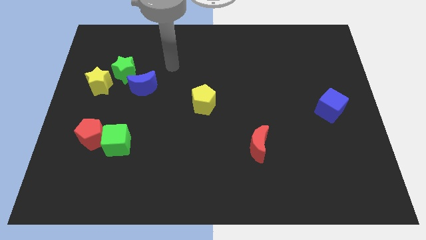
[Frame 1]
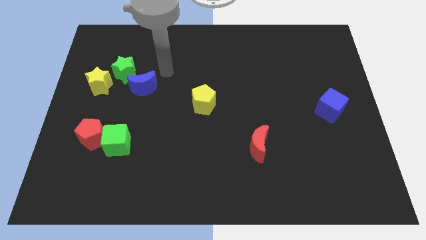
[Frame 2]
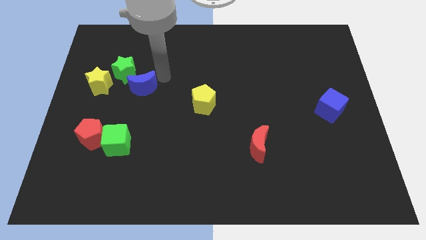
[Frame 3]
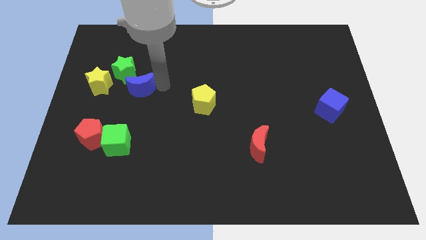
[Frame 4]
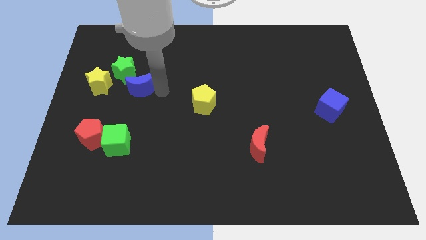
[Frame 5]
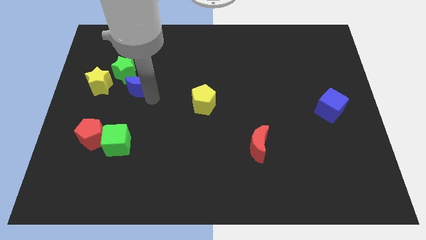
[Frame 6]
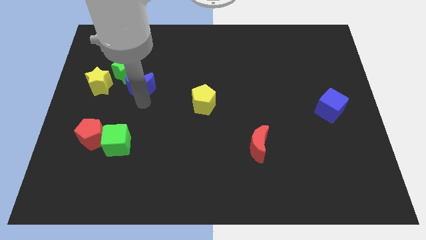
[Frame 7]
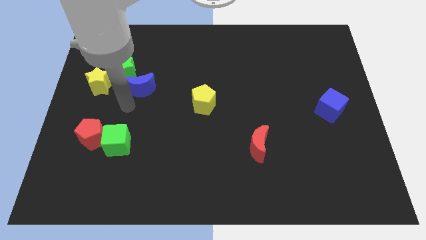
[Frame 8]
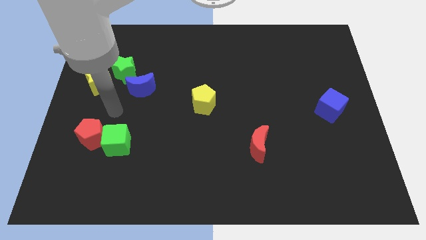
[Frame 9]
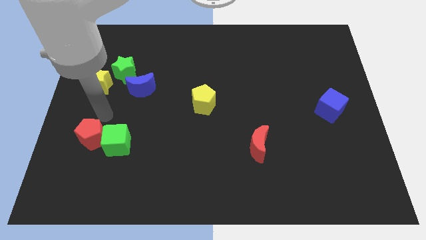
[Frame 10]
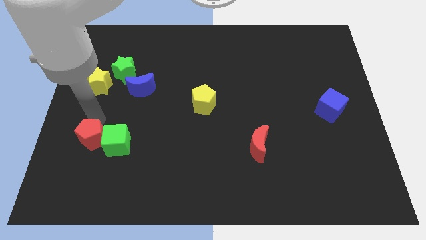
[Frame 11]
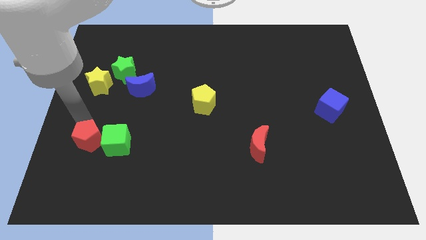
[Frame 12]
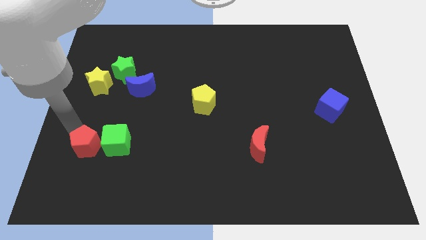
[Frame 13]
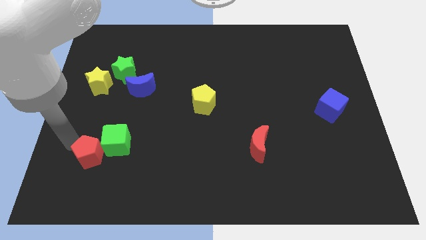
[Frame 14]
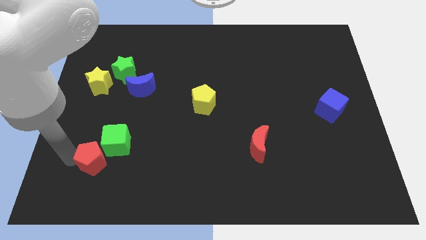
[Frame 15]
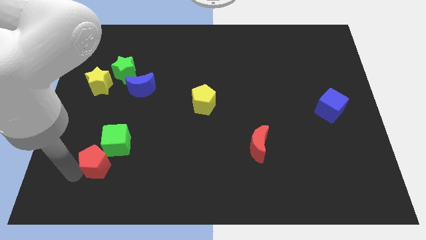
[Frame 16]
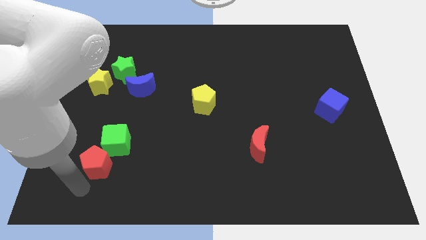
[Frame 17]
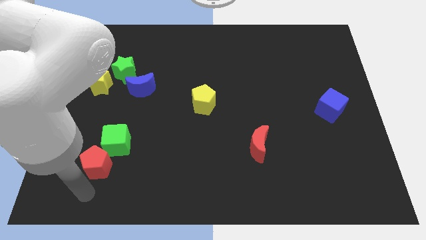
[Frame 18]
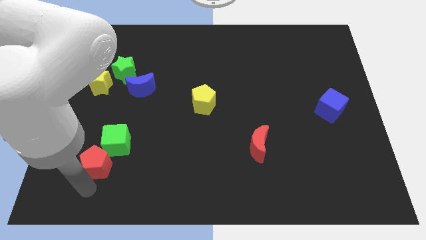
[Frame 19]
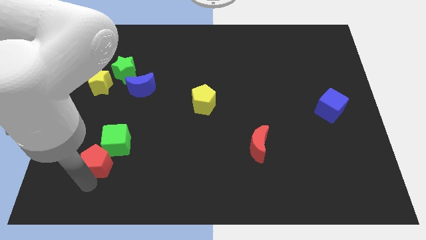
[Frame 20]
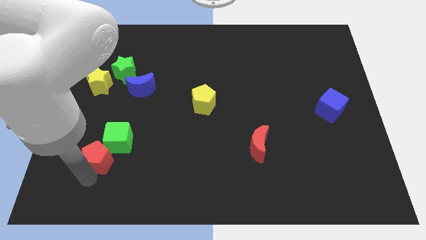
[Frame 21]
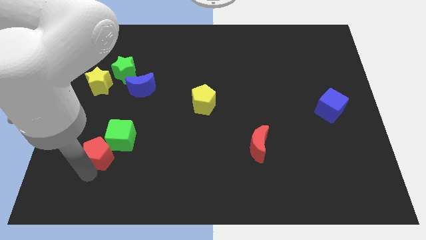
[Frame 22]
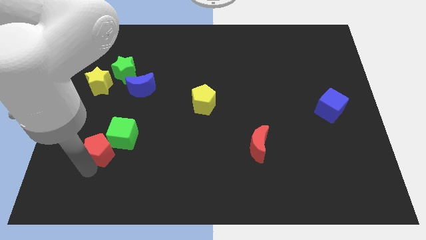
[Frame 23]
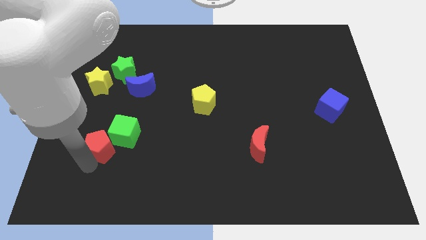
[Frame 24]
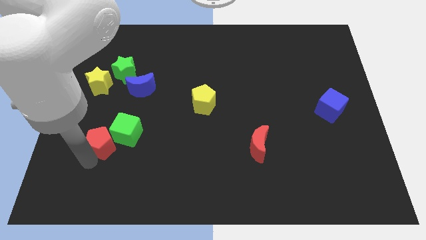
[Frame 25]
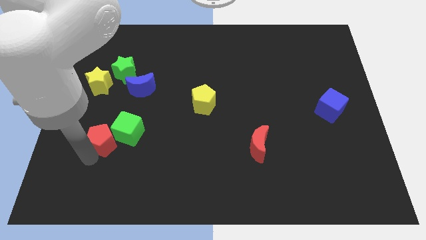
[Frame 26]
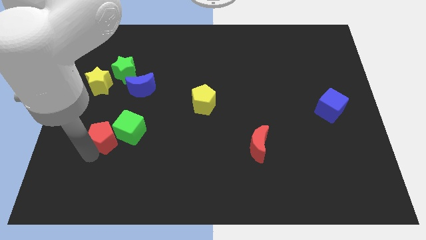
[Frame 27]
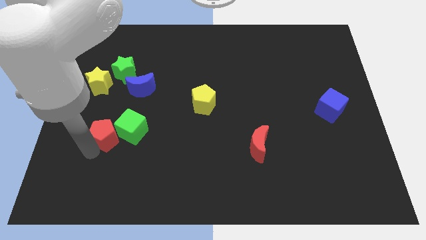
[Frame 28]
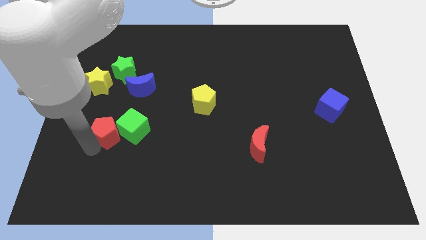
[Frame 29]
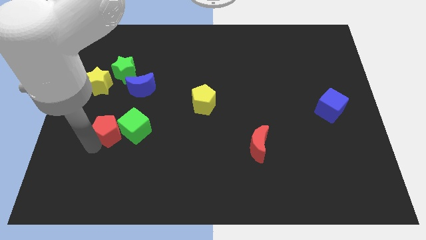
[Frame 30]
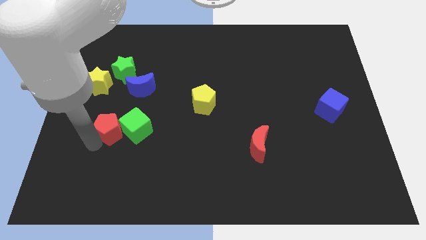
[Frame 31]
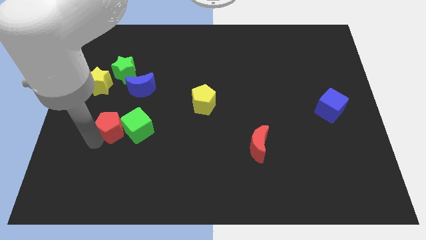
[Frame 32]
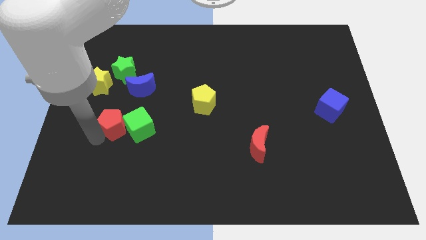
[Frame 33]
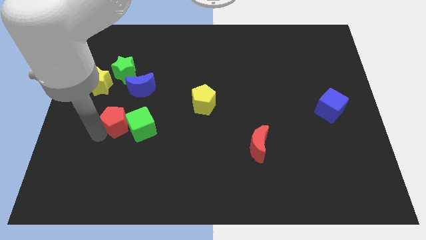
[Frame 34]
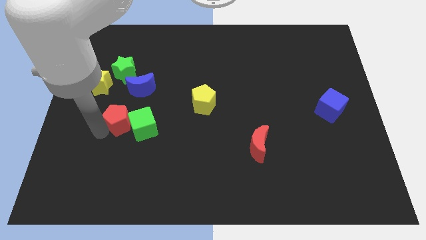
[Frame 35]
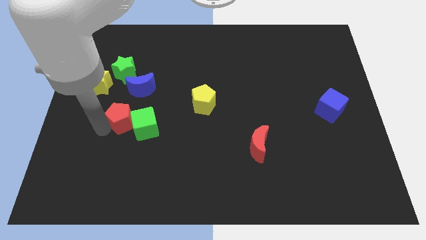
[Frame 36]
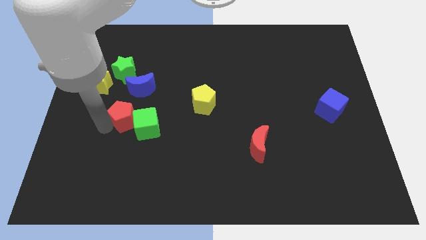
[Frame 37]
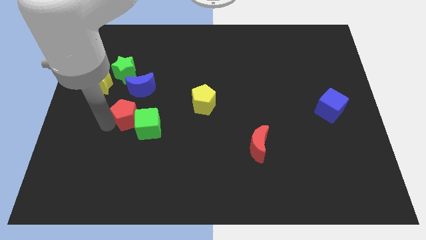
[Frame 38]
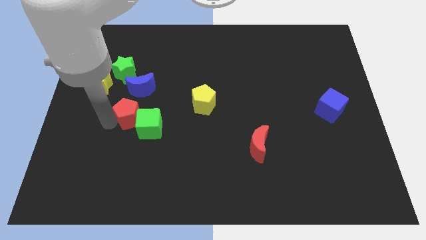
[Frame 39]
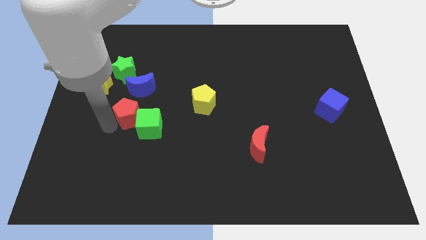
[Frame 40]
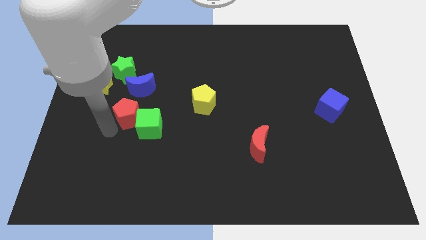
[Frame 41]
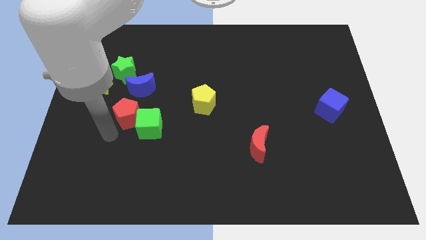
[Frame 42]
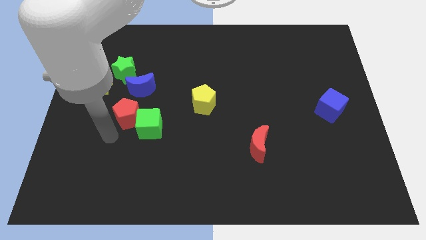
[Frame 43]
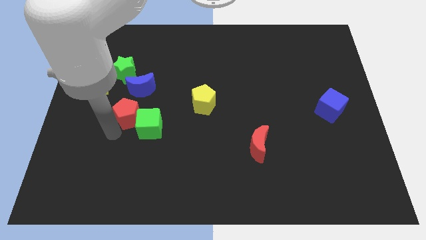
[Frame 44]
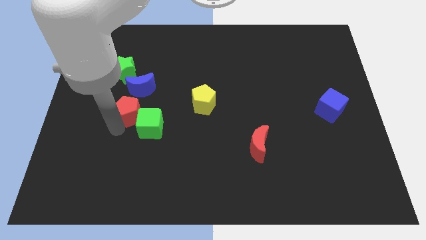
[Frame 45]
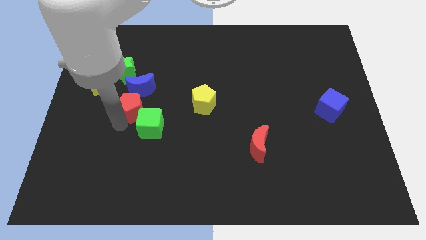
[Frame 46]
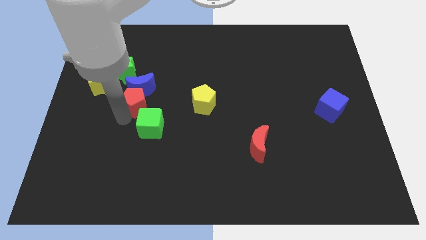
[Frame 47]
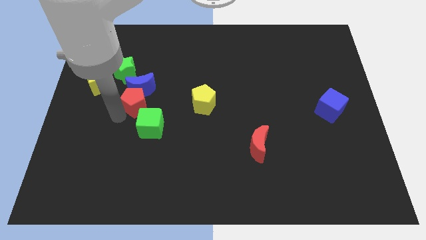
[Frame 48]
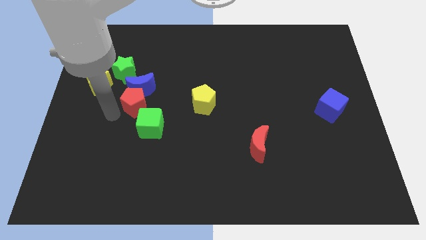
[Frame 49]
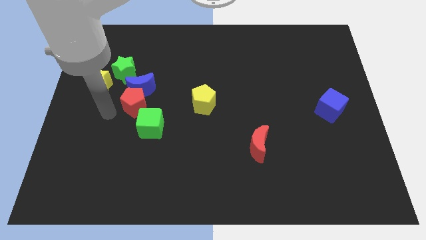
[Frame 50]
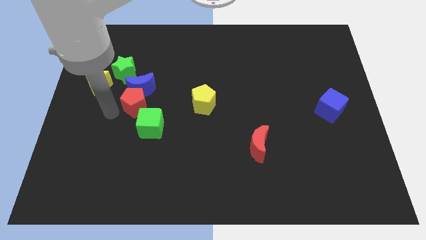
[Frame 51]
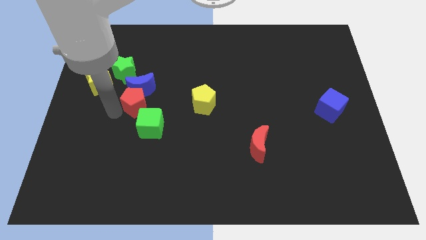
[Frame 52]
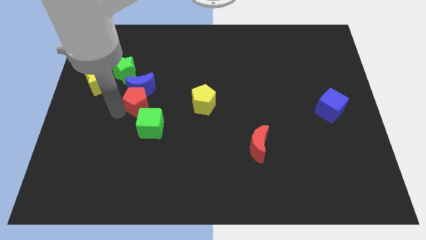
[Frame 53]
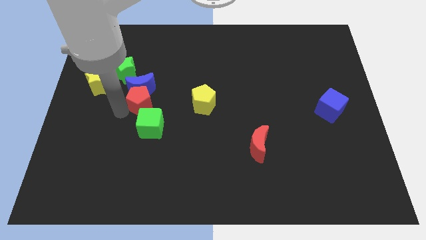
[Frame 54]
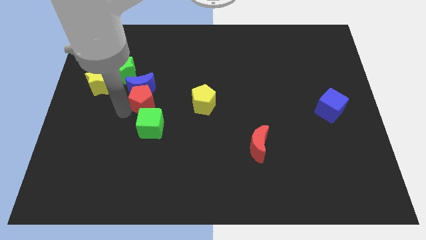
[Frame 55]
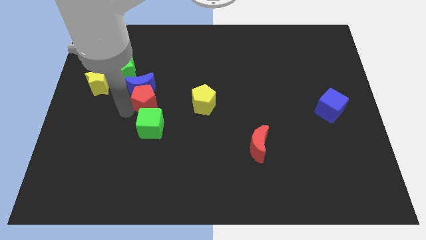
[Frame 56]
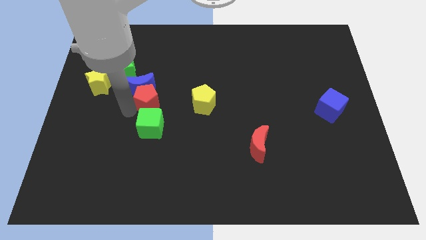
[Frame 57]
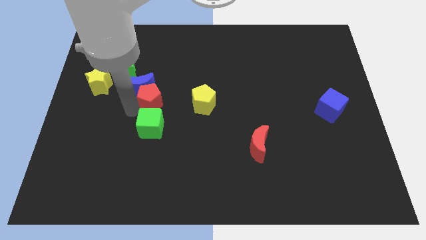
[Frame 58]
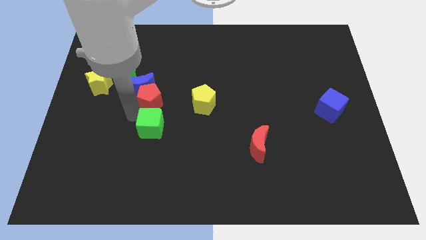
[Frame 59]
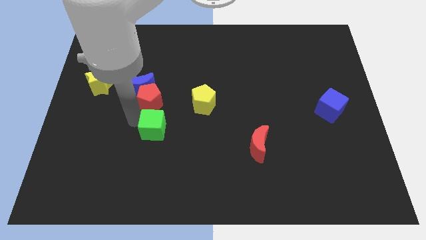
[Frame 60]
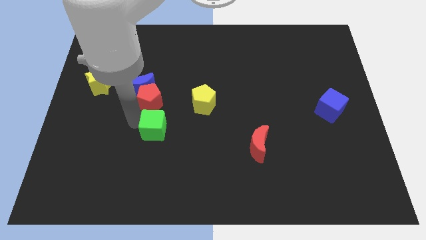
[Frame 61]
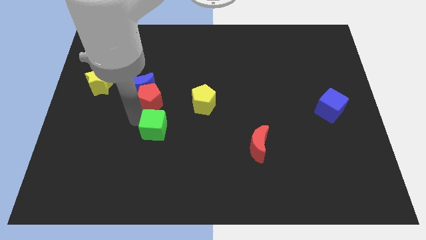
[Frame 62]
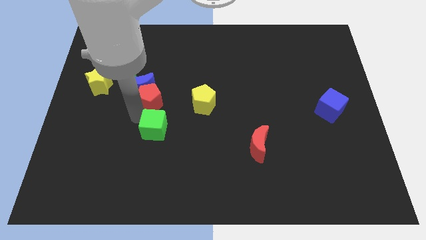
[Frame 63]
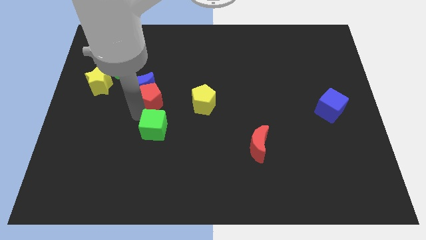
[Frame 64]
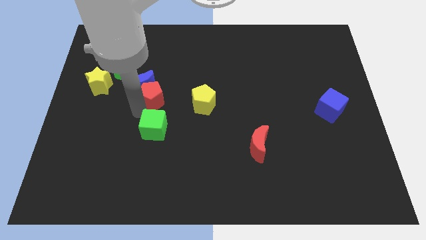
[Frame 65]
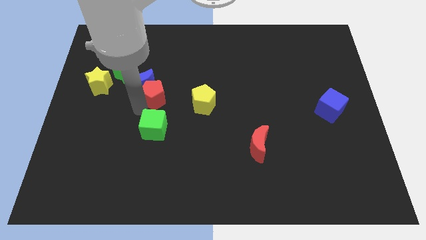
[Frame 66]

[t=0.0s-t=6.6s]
put the red pentagon just right of the yellow star

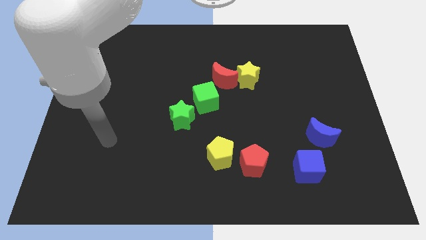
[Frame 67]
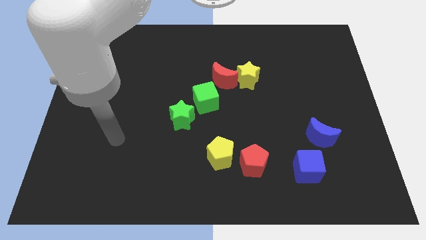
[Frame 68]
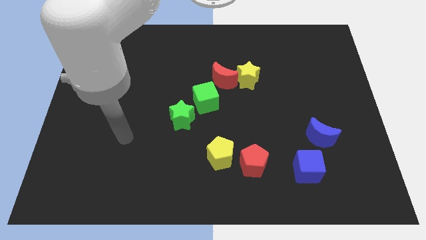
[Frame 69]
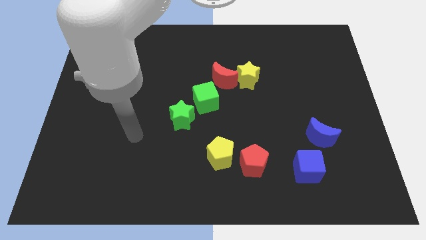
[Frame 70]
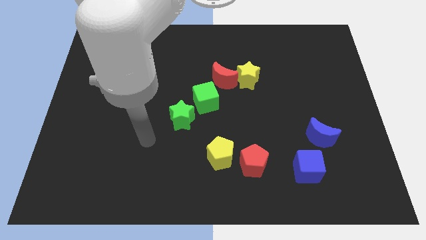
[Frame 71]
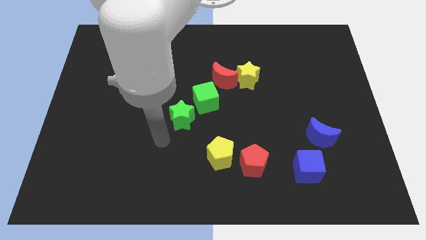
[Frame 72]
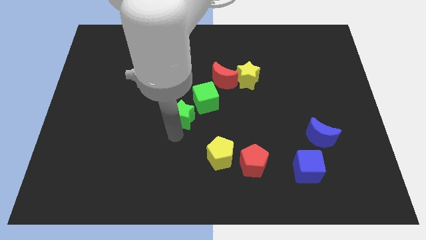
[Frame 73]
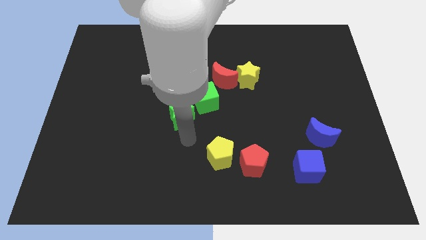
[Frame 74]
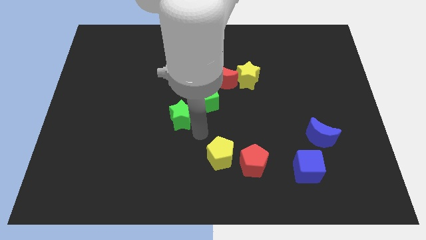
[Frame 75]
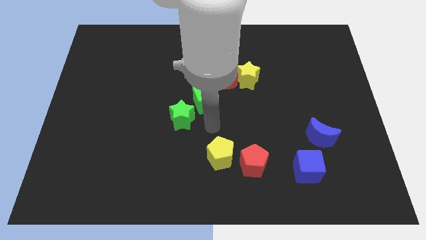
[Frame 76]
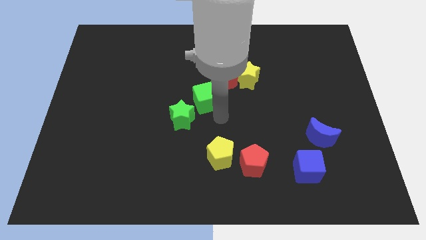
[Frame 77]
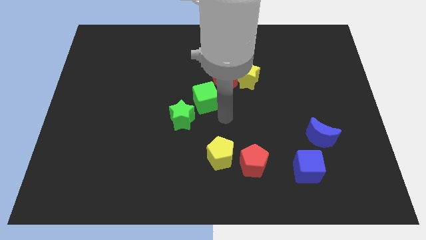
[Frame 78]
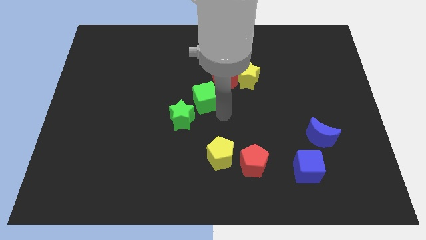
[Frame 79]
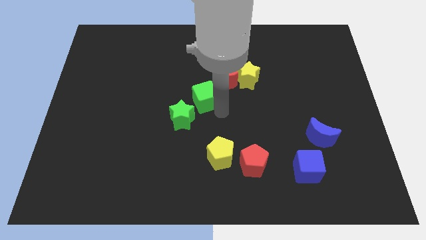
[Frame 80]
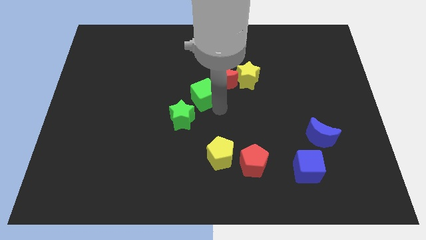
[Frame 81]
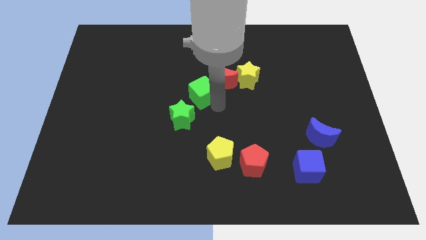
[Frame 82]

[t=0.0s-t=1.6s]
slide the green cube left of the red moon
